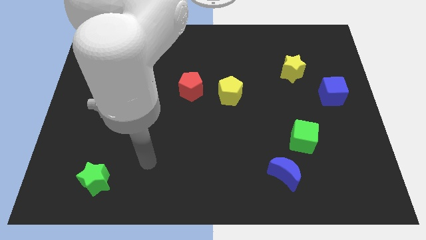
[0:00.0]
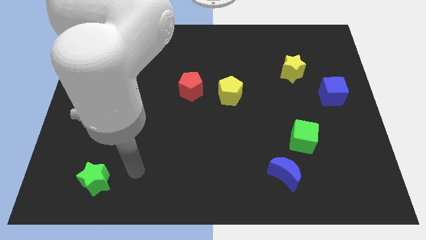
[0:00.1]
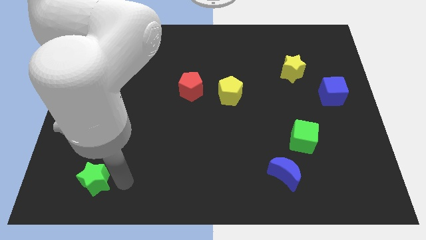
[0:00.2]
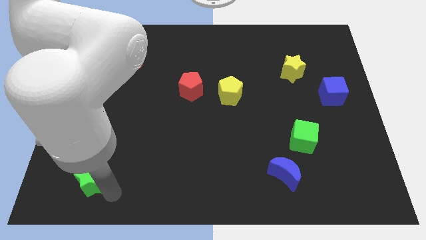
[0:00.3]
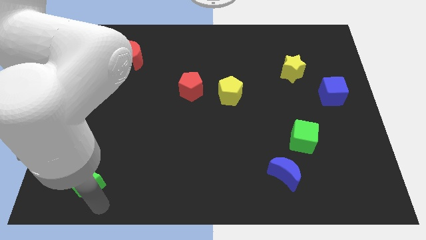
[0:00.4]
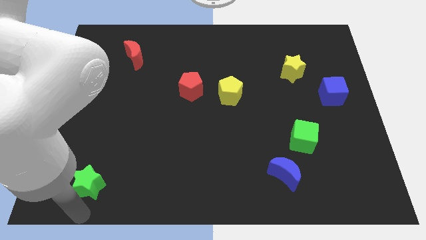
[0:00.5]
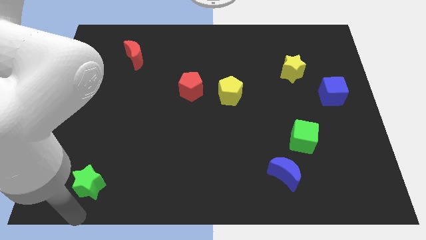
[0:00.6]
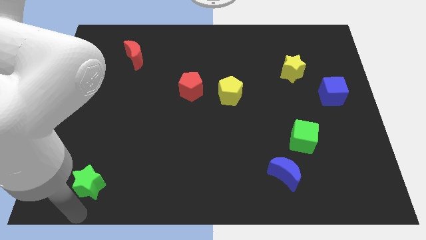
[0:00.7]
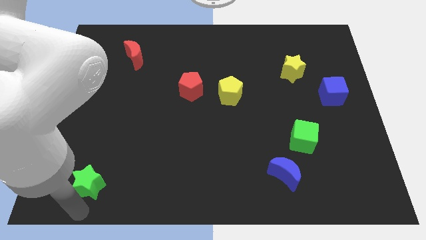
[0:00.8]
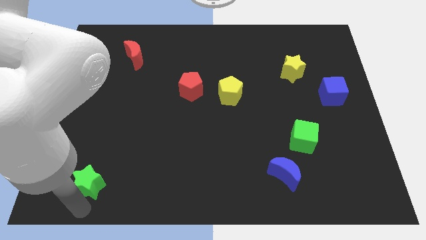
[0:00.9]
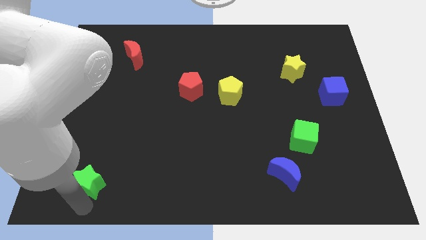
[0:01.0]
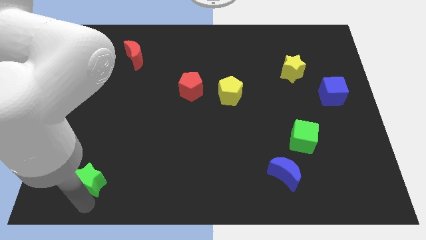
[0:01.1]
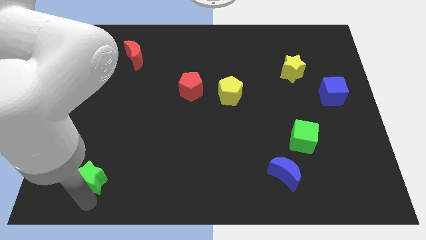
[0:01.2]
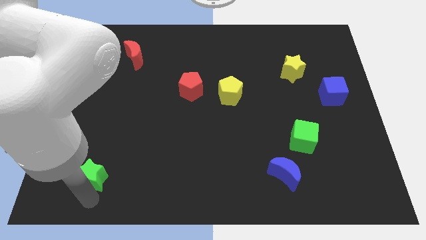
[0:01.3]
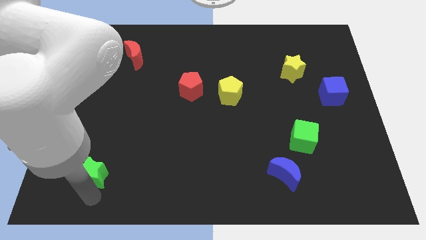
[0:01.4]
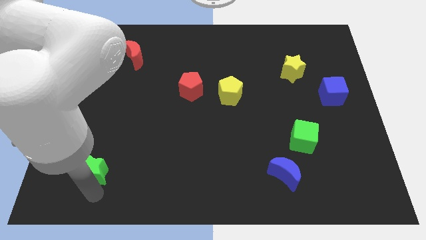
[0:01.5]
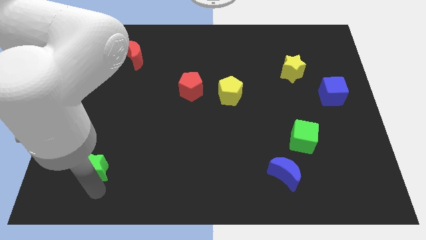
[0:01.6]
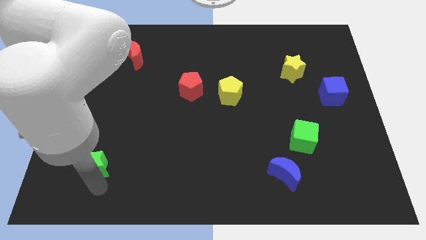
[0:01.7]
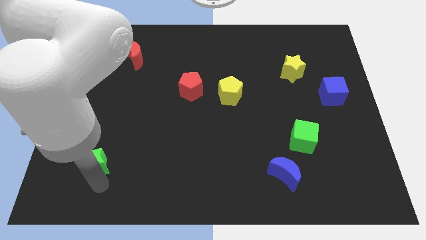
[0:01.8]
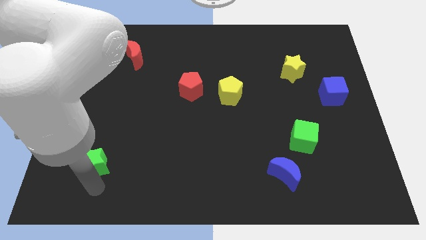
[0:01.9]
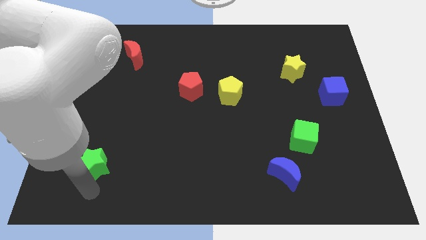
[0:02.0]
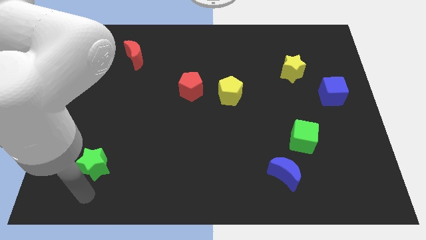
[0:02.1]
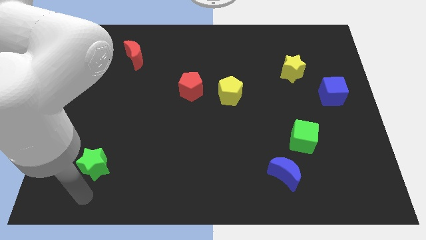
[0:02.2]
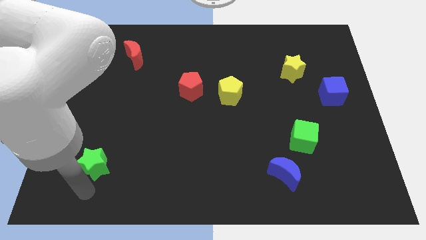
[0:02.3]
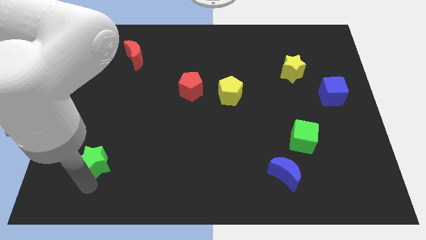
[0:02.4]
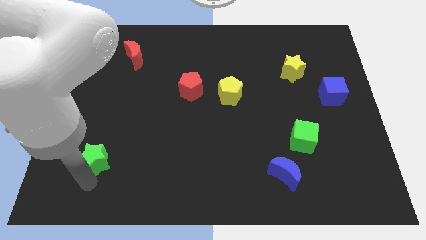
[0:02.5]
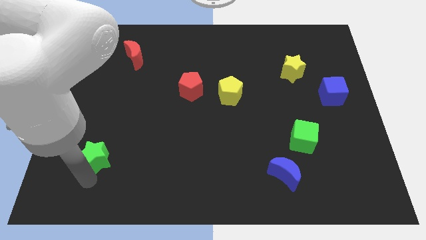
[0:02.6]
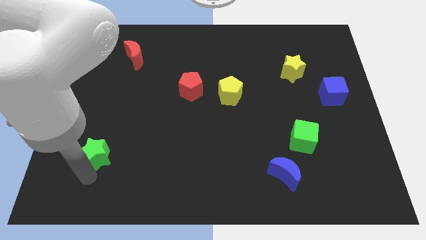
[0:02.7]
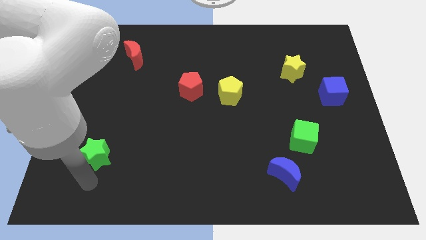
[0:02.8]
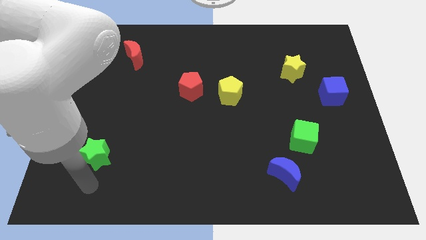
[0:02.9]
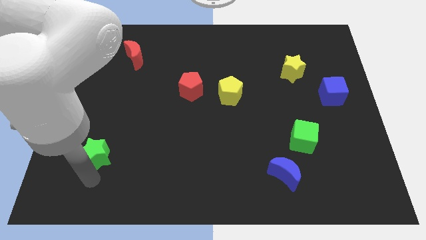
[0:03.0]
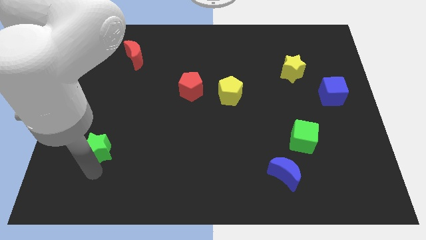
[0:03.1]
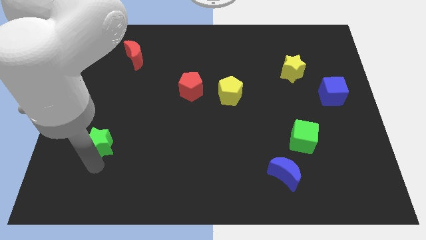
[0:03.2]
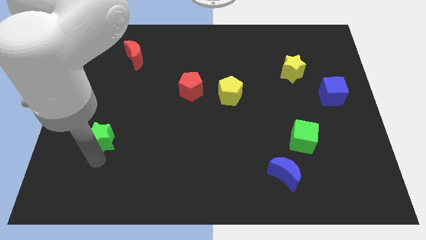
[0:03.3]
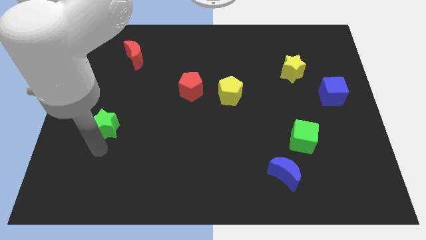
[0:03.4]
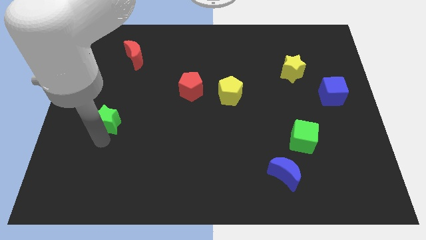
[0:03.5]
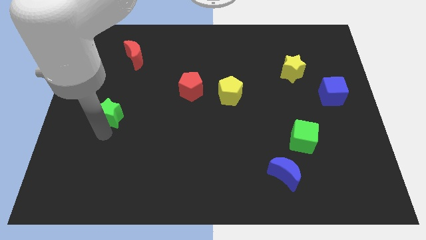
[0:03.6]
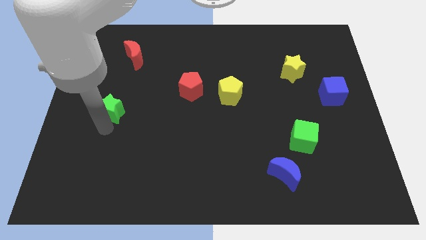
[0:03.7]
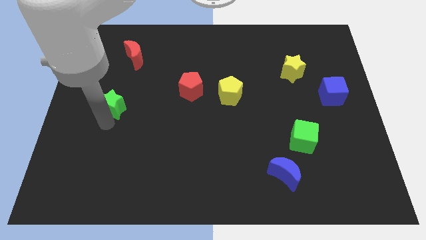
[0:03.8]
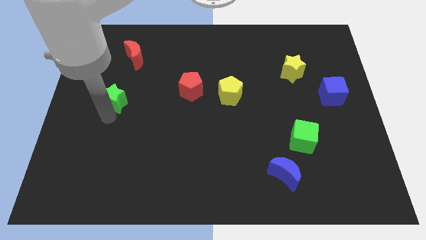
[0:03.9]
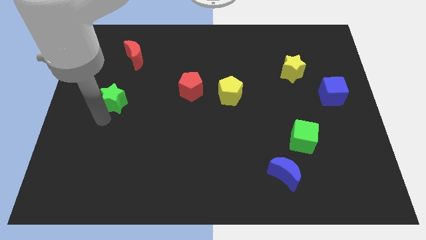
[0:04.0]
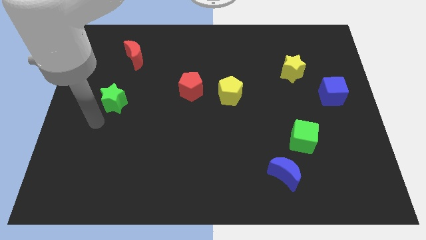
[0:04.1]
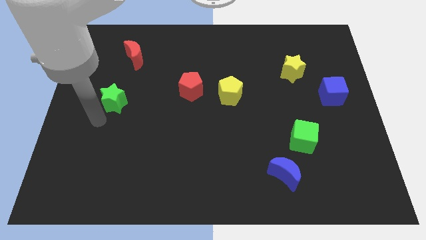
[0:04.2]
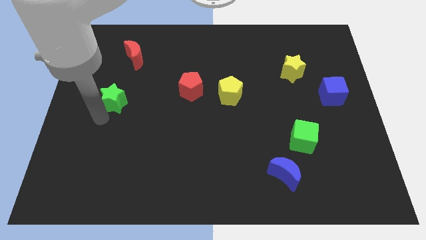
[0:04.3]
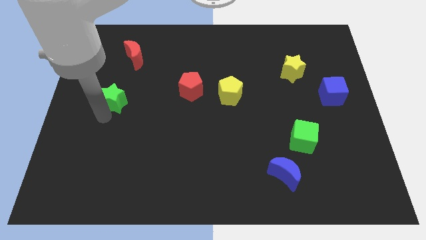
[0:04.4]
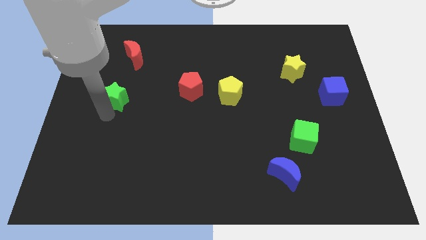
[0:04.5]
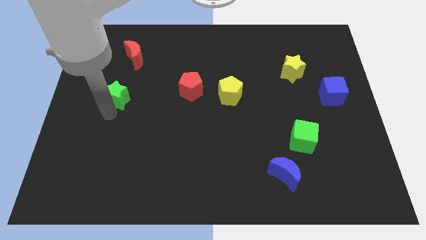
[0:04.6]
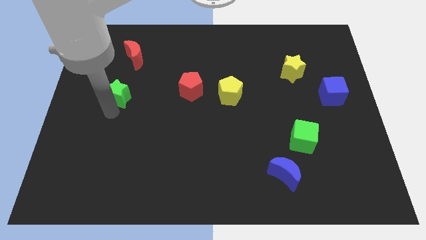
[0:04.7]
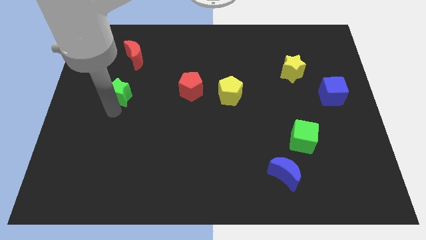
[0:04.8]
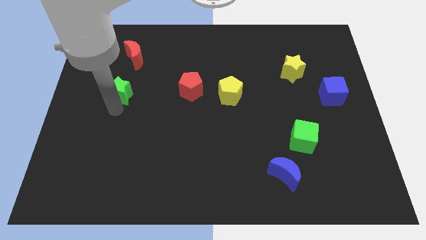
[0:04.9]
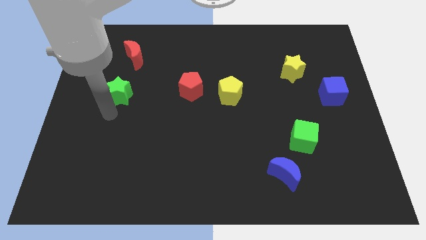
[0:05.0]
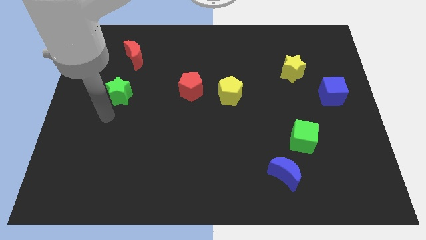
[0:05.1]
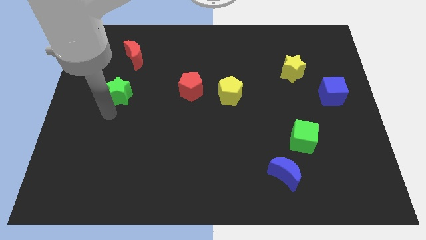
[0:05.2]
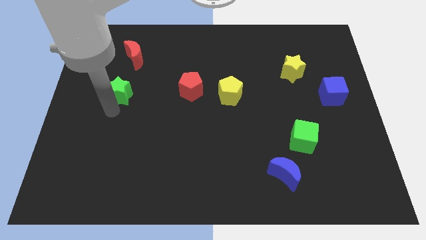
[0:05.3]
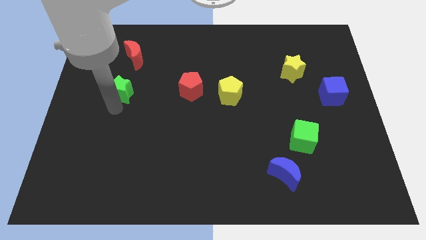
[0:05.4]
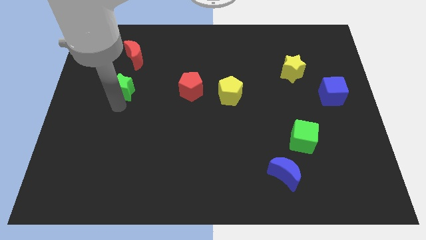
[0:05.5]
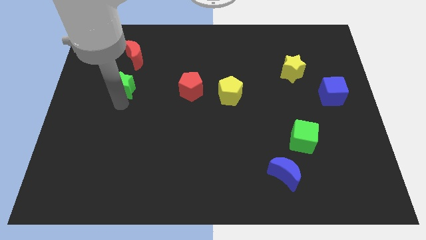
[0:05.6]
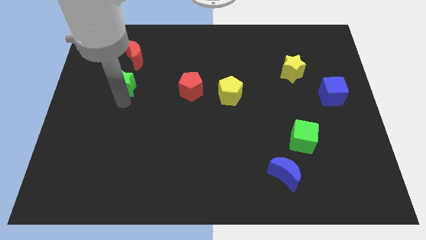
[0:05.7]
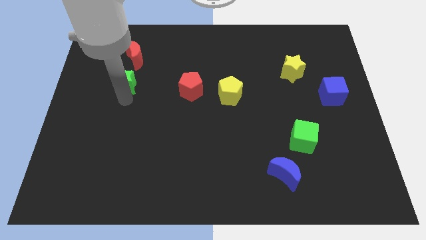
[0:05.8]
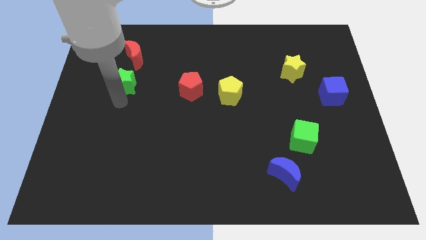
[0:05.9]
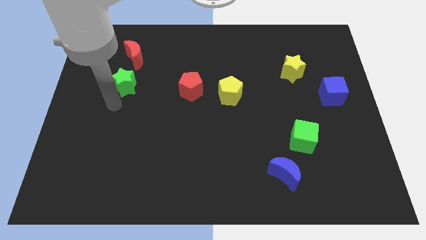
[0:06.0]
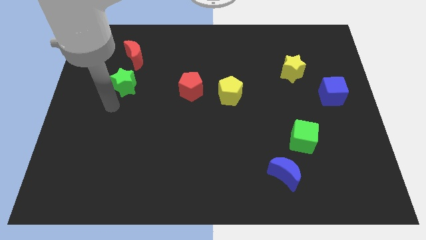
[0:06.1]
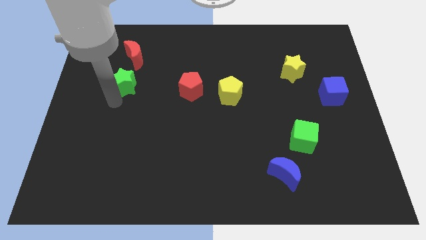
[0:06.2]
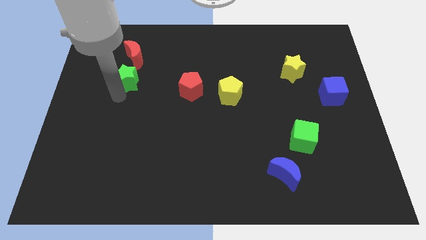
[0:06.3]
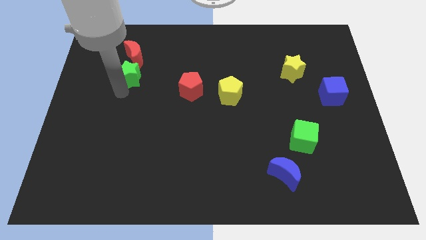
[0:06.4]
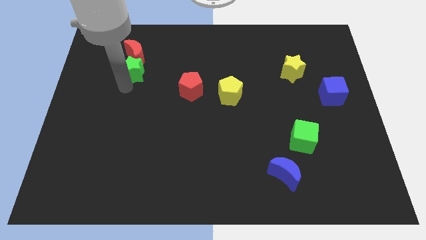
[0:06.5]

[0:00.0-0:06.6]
slide the green star towards the red moon

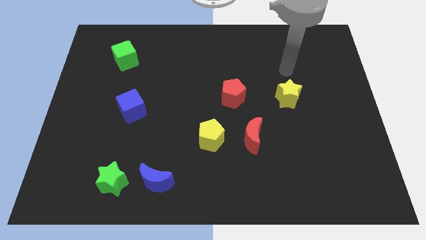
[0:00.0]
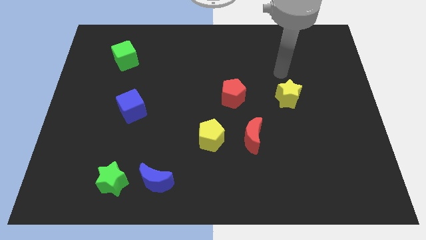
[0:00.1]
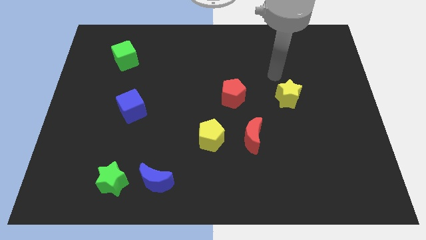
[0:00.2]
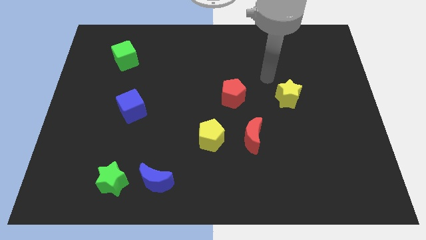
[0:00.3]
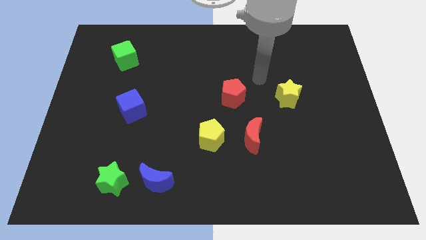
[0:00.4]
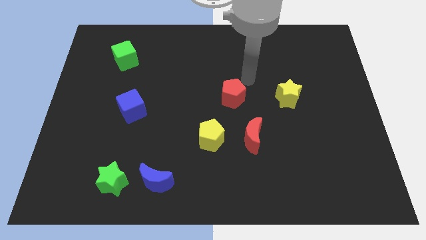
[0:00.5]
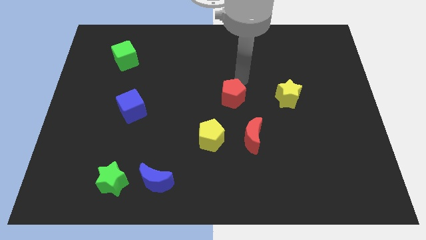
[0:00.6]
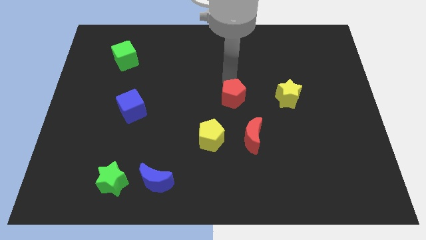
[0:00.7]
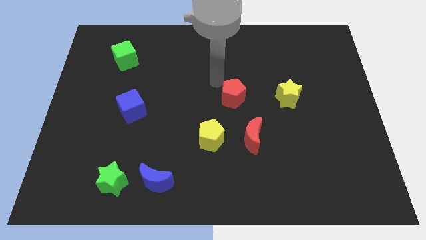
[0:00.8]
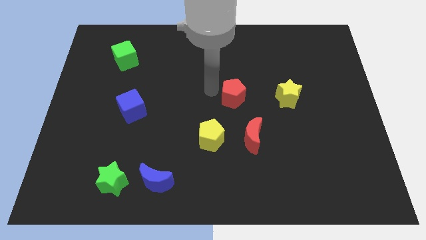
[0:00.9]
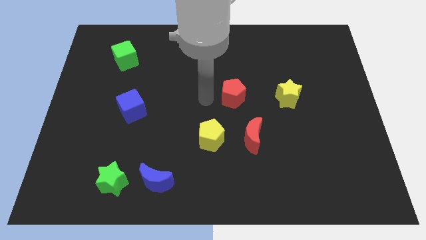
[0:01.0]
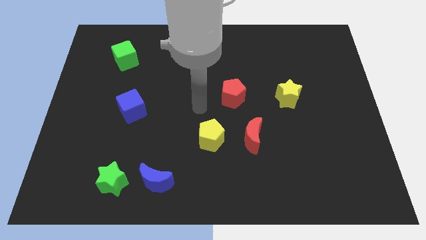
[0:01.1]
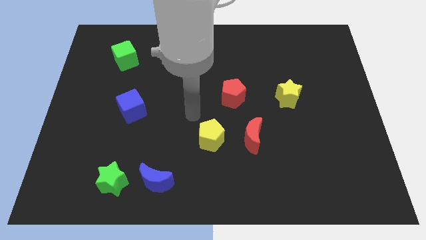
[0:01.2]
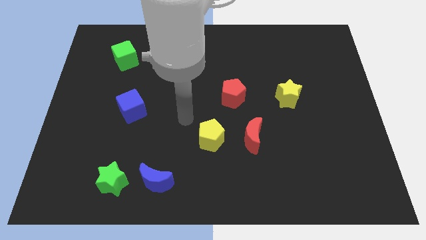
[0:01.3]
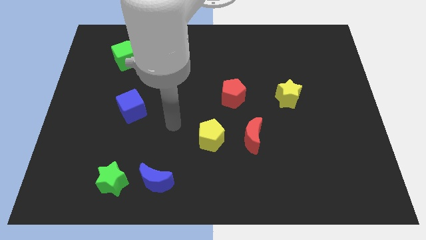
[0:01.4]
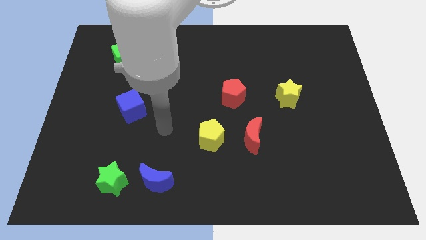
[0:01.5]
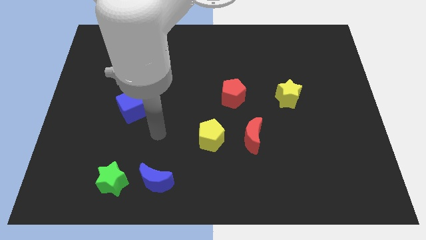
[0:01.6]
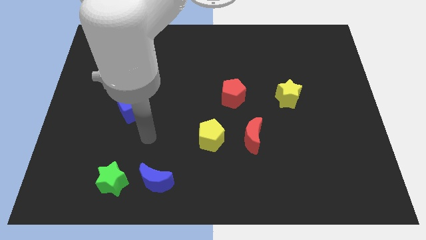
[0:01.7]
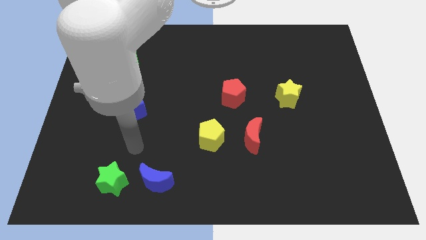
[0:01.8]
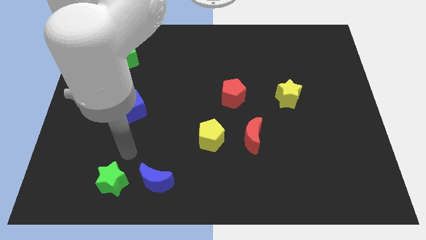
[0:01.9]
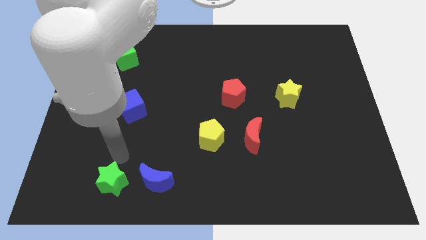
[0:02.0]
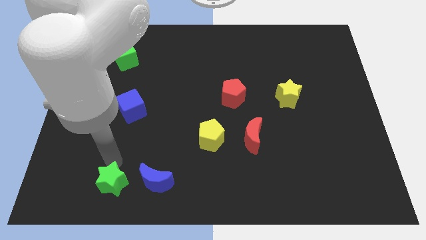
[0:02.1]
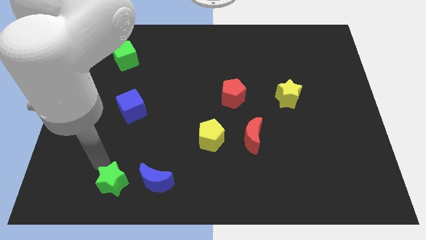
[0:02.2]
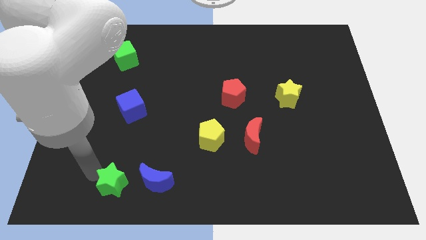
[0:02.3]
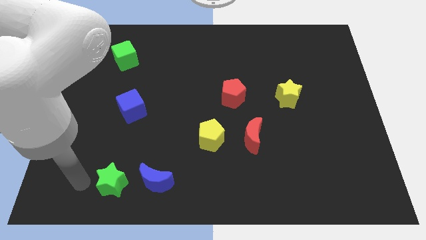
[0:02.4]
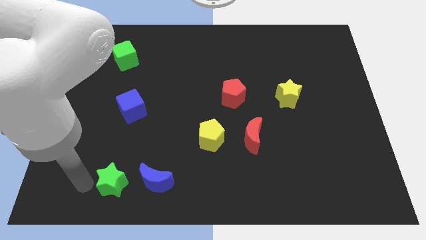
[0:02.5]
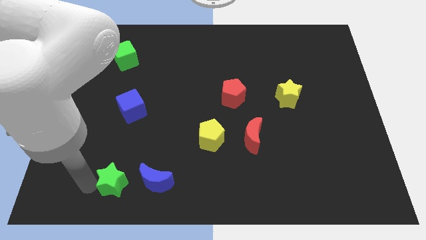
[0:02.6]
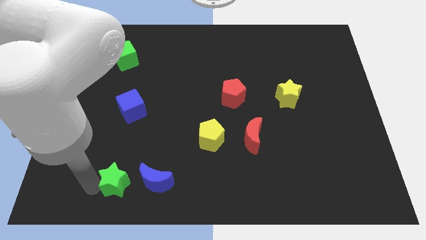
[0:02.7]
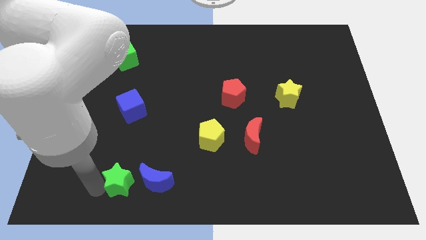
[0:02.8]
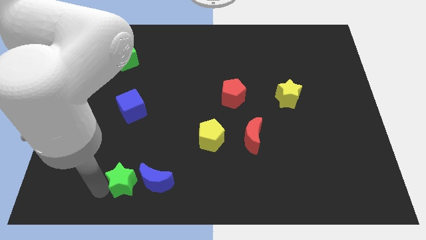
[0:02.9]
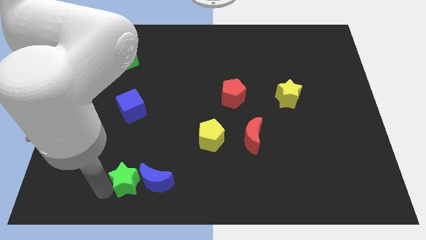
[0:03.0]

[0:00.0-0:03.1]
push the green star to the blue moon
